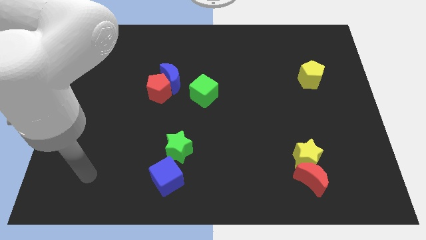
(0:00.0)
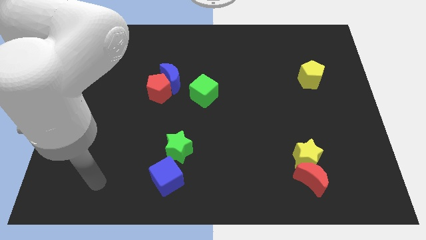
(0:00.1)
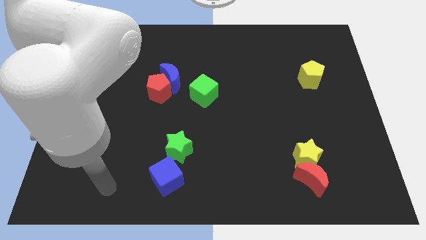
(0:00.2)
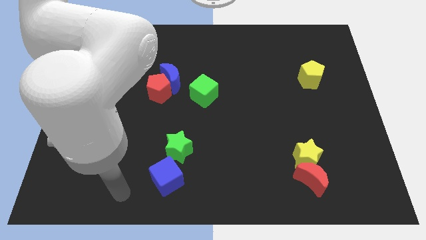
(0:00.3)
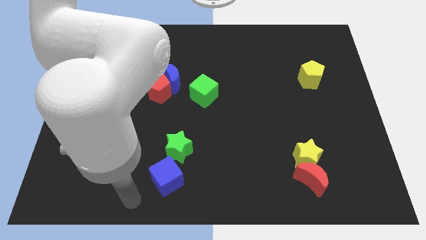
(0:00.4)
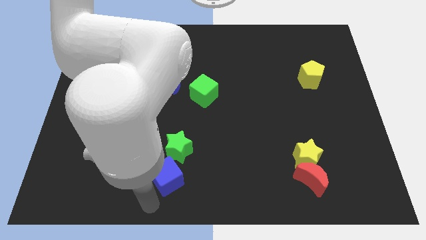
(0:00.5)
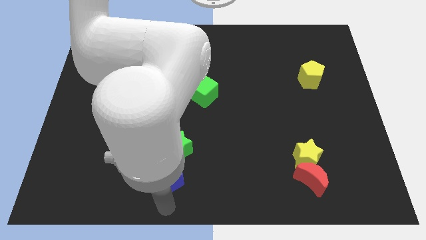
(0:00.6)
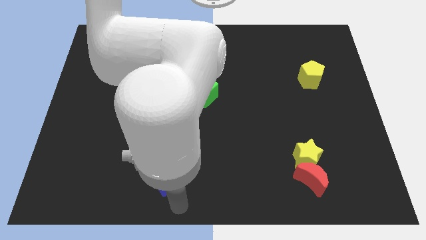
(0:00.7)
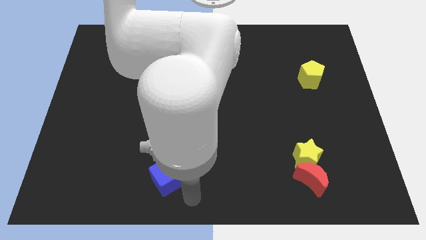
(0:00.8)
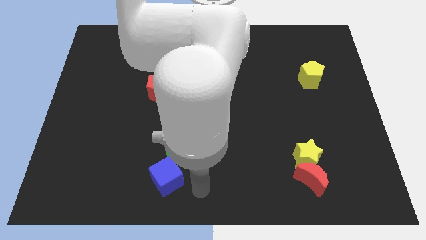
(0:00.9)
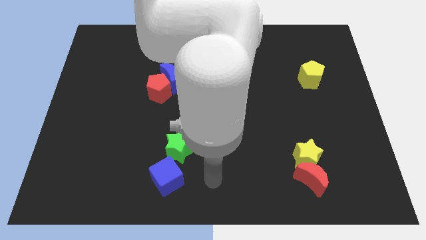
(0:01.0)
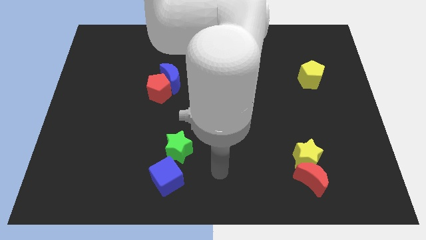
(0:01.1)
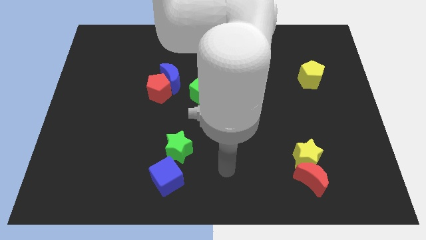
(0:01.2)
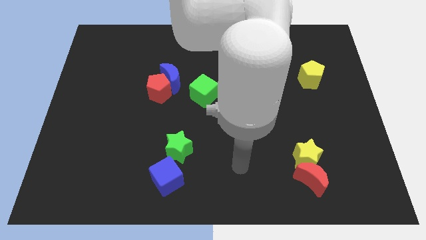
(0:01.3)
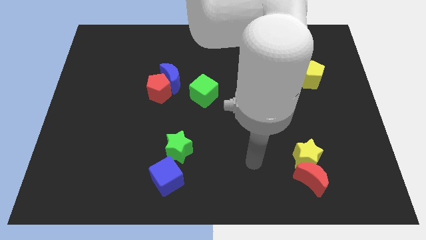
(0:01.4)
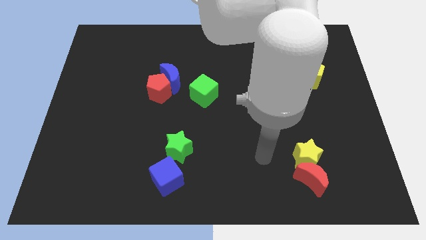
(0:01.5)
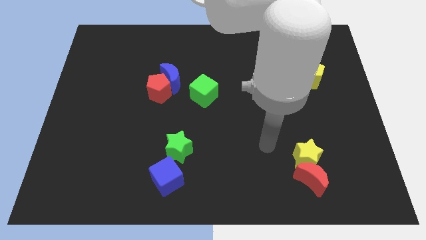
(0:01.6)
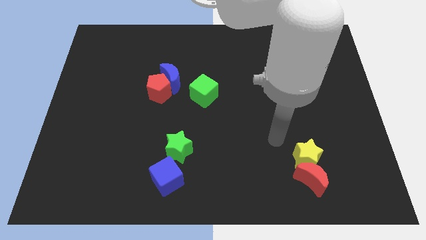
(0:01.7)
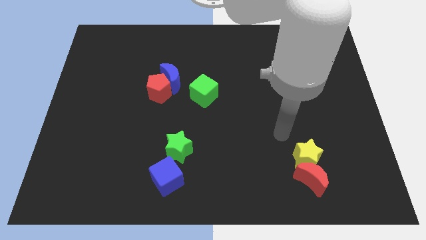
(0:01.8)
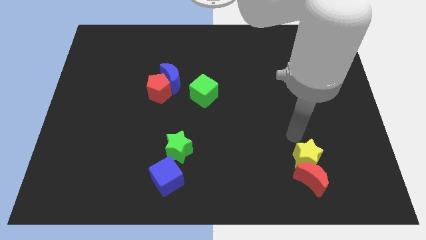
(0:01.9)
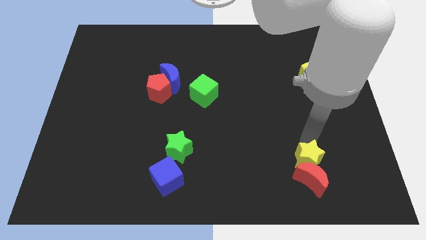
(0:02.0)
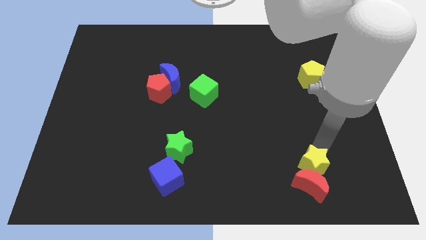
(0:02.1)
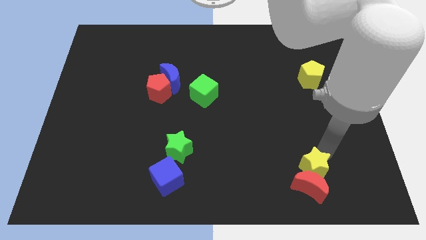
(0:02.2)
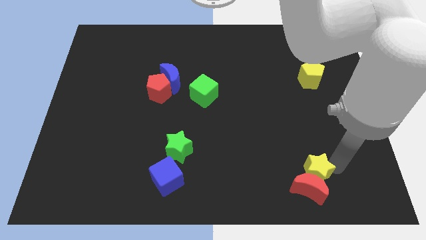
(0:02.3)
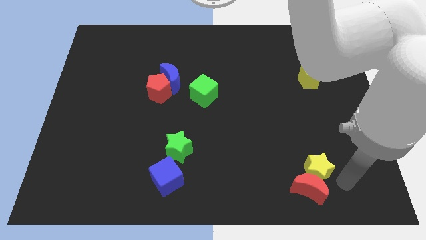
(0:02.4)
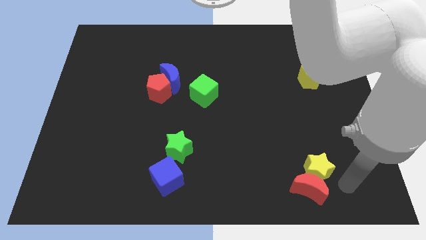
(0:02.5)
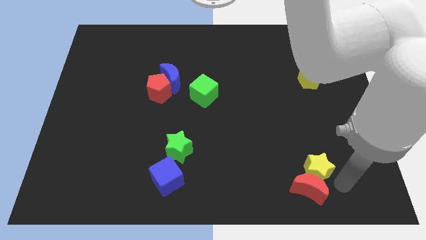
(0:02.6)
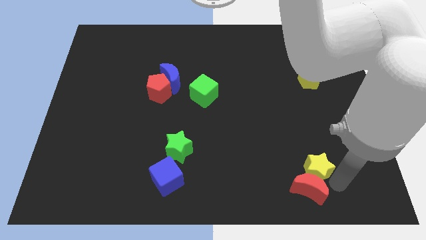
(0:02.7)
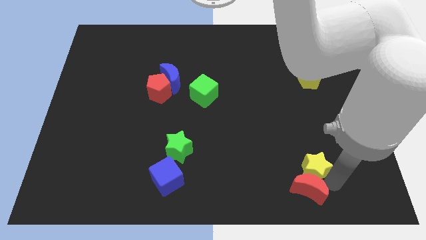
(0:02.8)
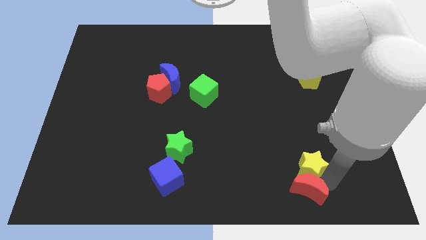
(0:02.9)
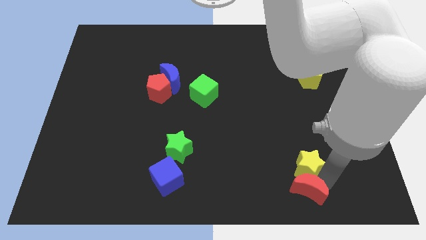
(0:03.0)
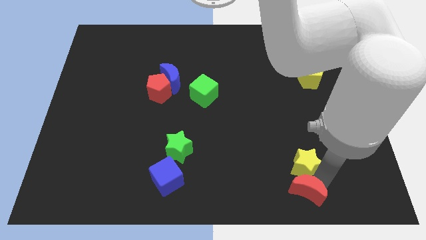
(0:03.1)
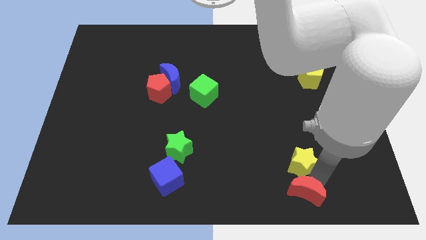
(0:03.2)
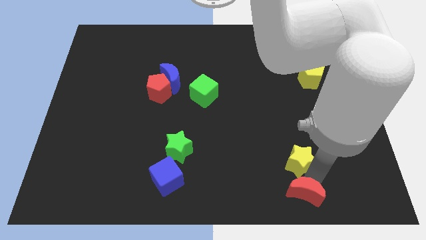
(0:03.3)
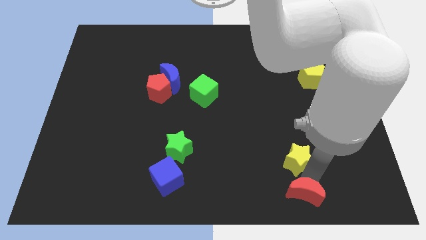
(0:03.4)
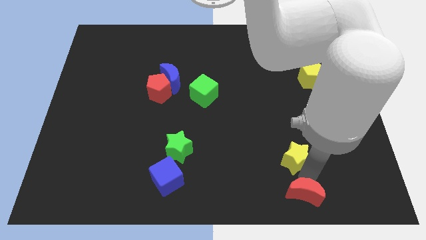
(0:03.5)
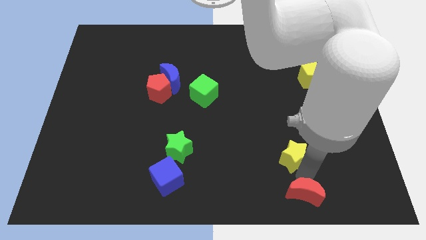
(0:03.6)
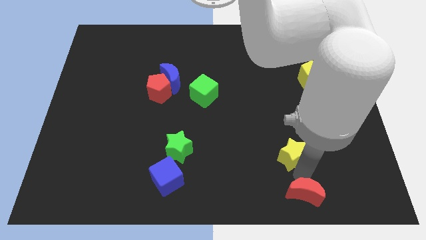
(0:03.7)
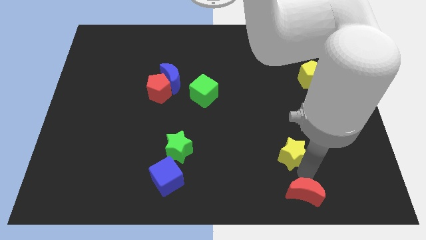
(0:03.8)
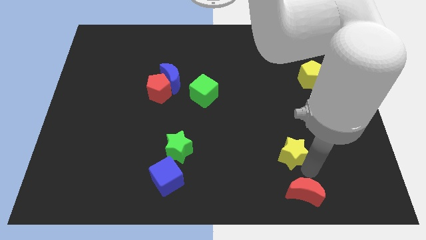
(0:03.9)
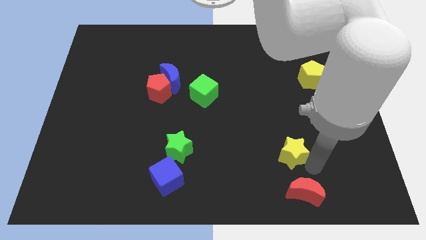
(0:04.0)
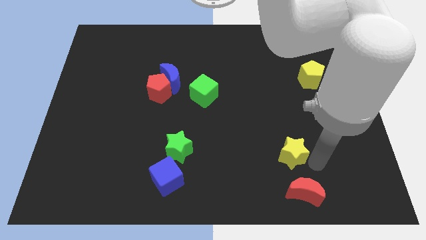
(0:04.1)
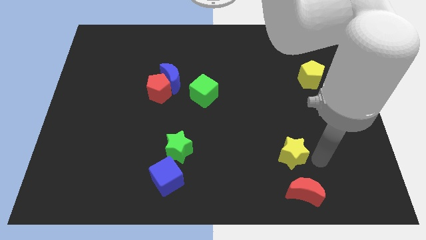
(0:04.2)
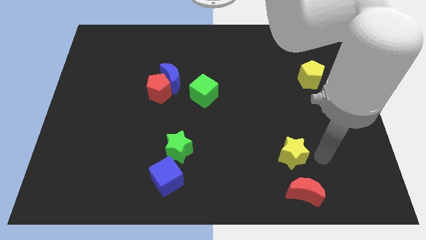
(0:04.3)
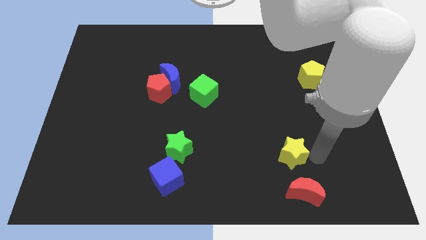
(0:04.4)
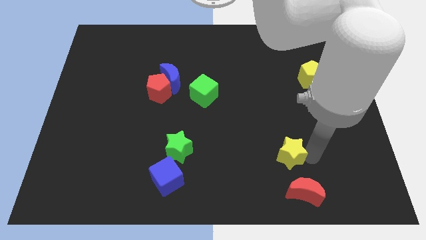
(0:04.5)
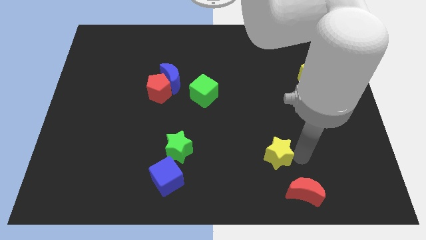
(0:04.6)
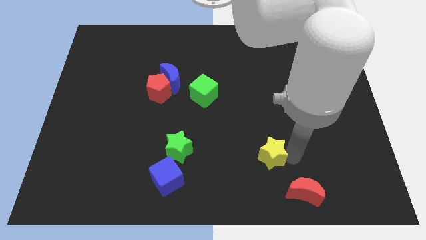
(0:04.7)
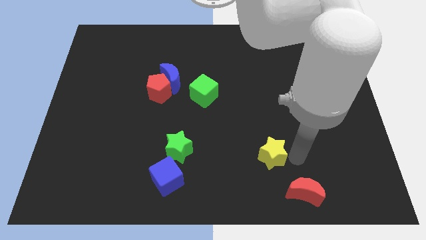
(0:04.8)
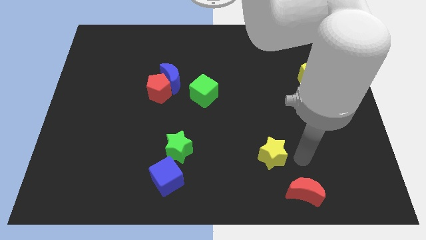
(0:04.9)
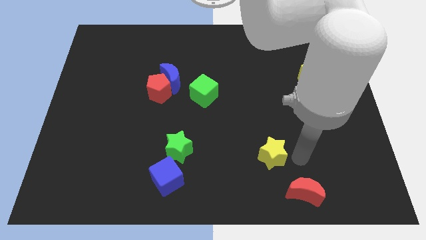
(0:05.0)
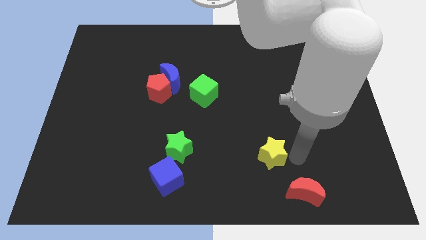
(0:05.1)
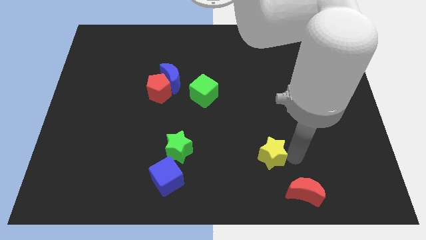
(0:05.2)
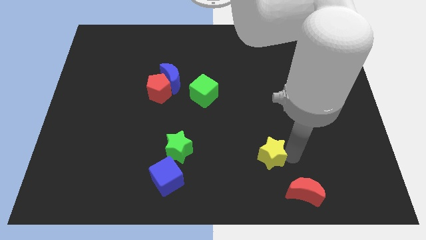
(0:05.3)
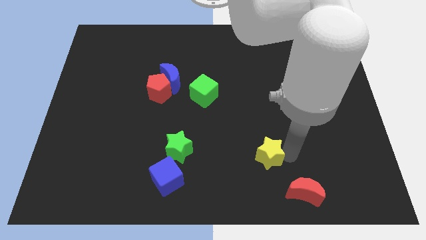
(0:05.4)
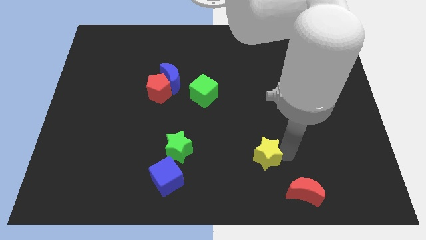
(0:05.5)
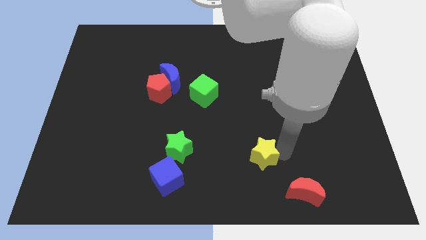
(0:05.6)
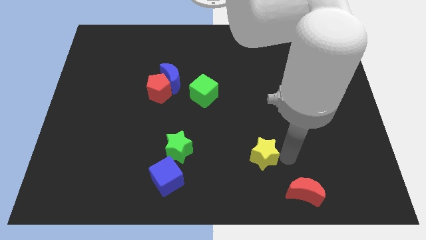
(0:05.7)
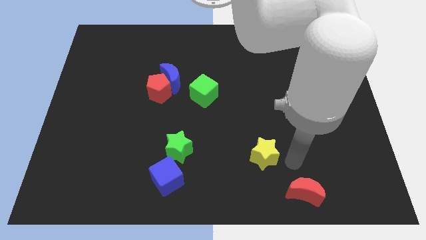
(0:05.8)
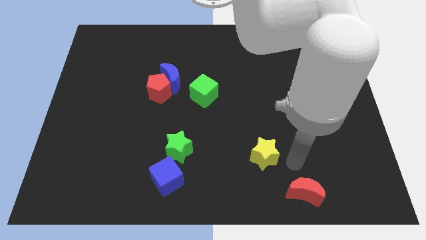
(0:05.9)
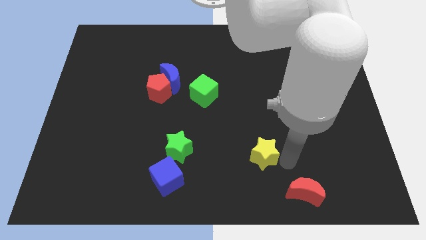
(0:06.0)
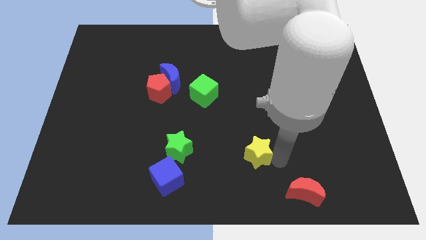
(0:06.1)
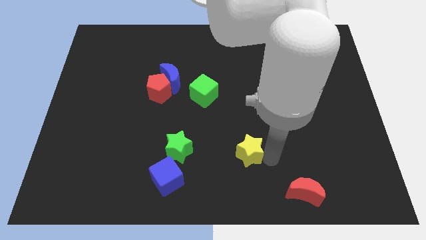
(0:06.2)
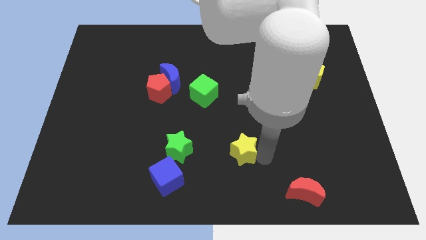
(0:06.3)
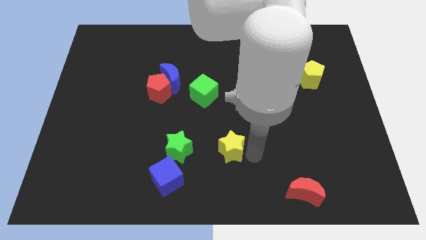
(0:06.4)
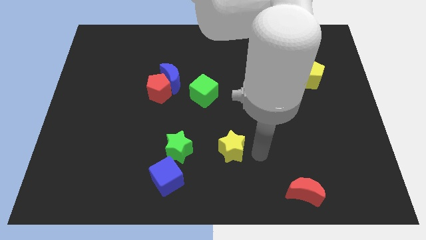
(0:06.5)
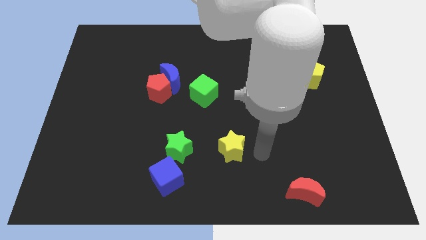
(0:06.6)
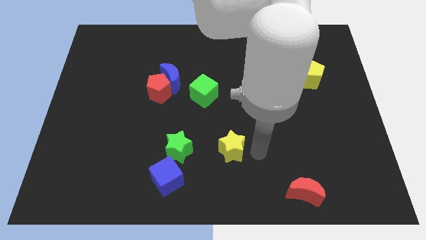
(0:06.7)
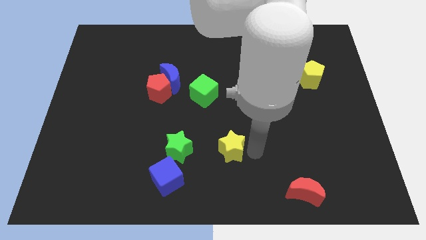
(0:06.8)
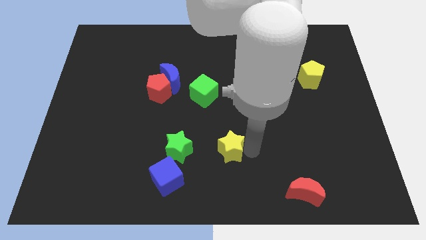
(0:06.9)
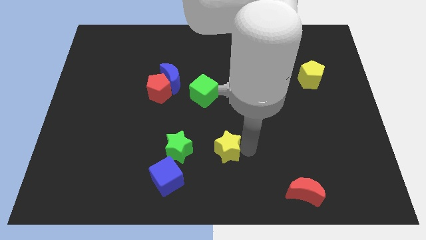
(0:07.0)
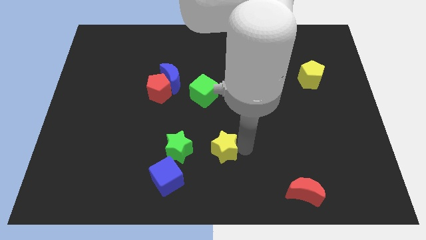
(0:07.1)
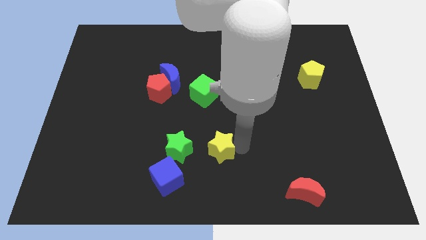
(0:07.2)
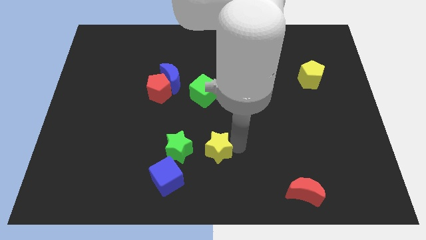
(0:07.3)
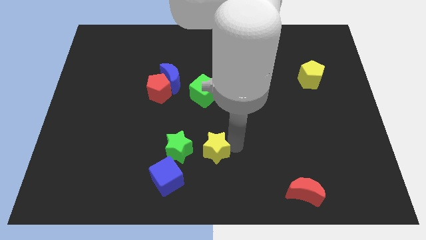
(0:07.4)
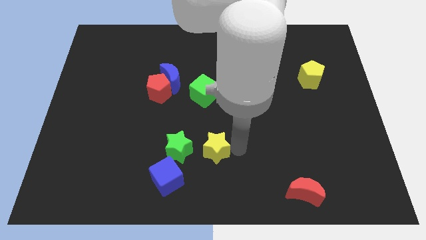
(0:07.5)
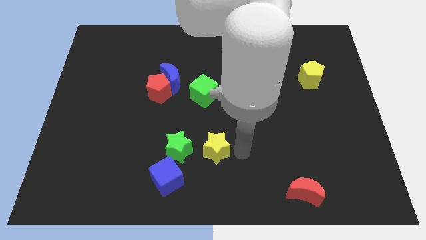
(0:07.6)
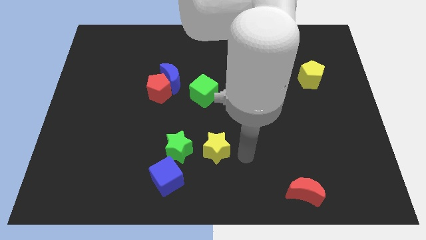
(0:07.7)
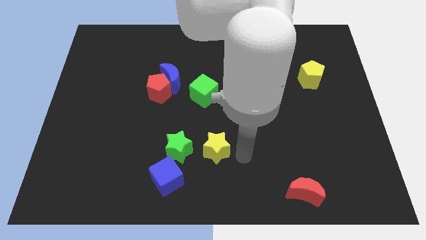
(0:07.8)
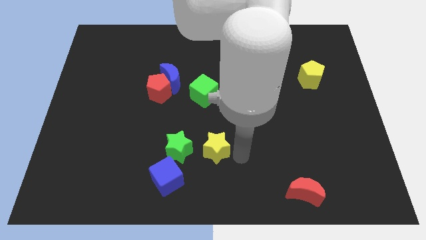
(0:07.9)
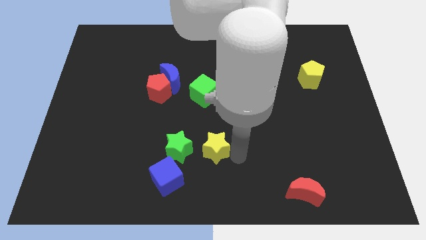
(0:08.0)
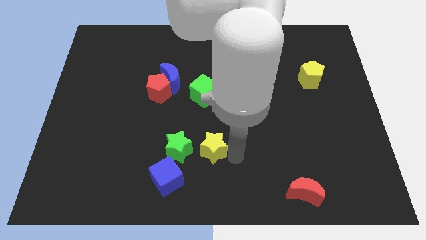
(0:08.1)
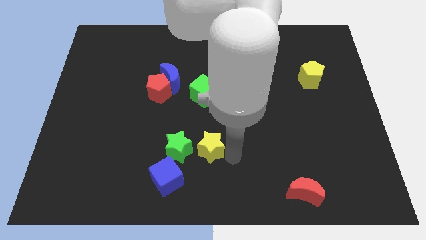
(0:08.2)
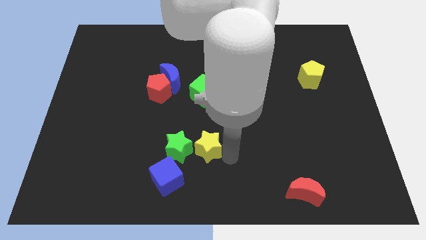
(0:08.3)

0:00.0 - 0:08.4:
move the yellow star close to the green star
